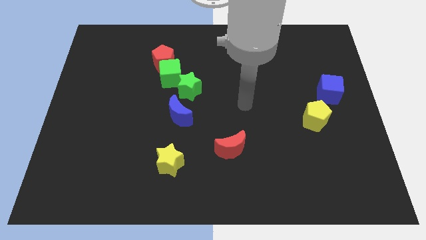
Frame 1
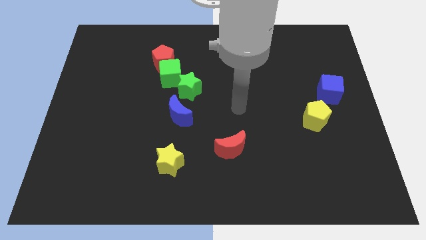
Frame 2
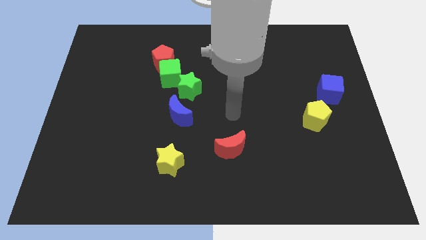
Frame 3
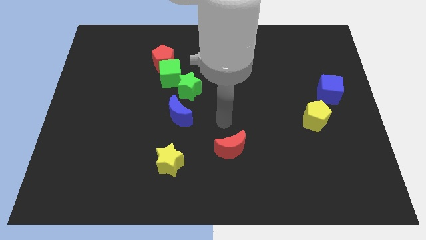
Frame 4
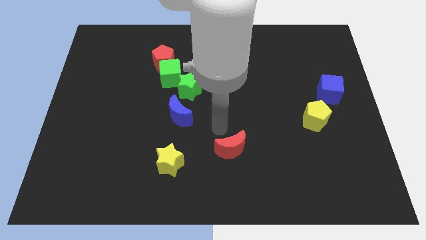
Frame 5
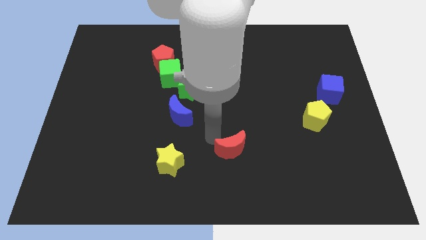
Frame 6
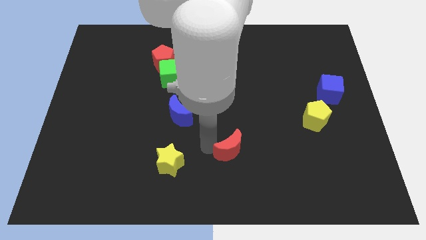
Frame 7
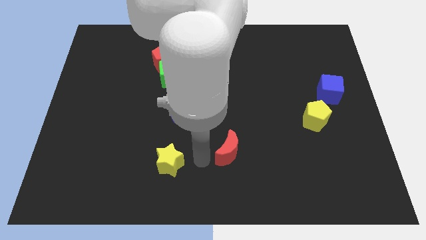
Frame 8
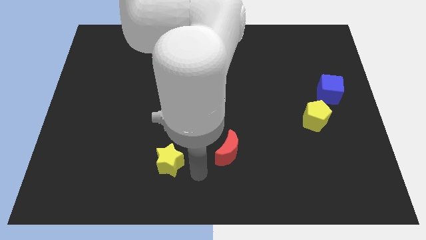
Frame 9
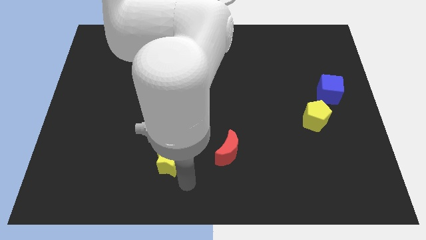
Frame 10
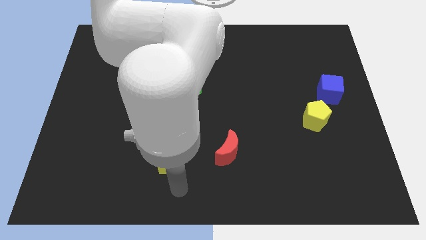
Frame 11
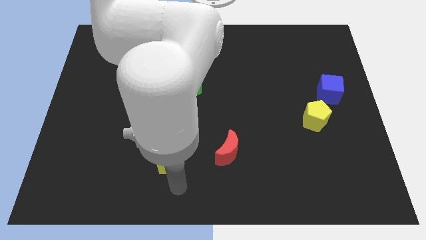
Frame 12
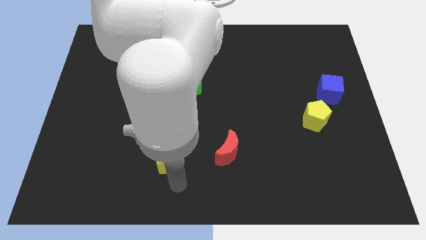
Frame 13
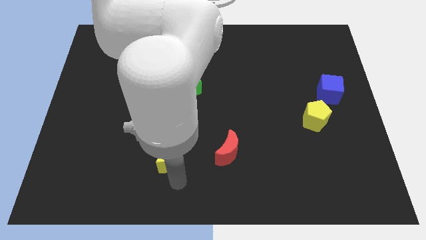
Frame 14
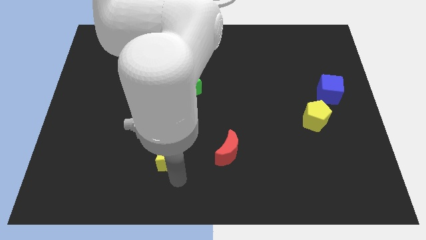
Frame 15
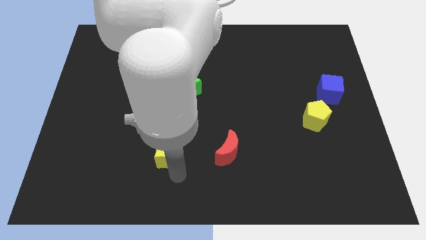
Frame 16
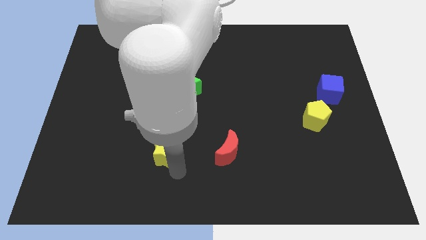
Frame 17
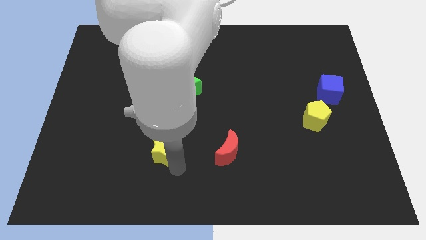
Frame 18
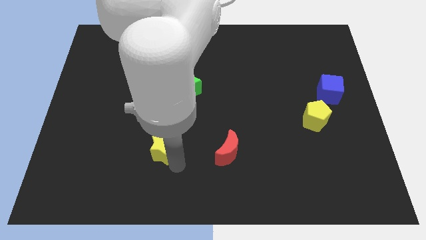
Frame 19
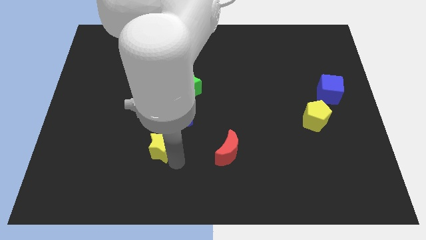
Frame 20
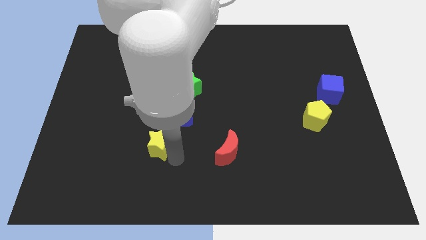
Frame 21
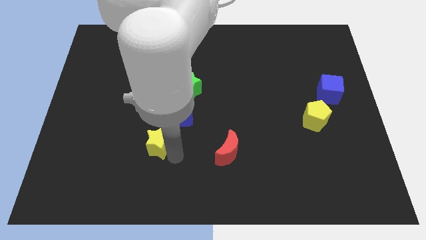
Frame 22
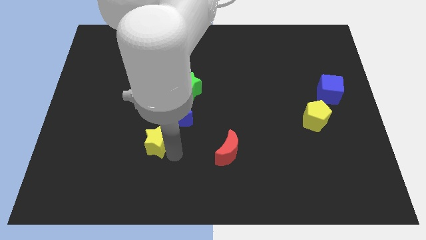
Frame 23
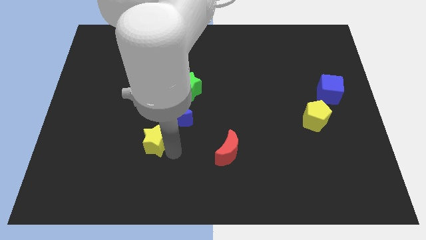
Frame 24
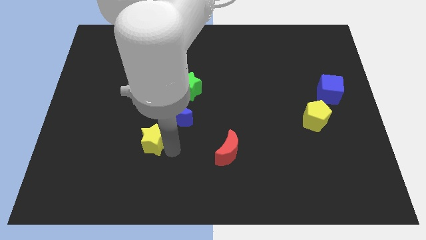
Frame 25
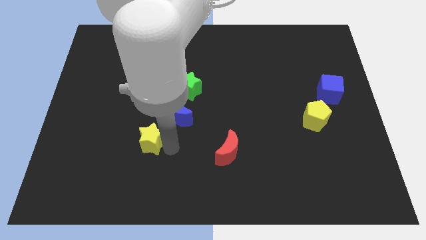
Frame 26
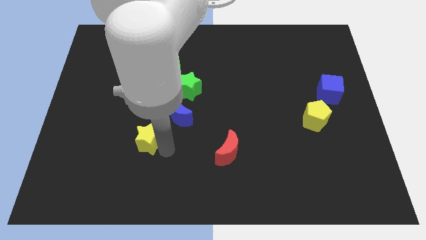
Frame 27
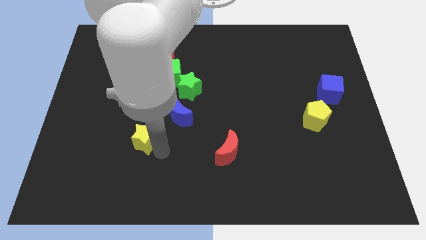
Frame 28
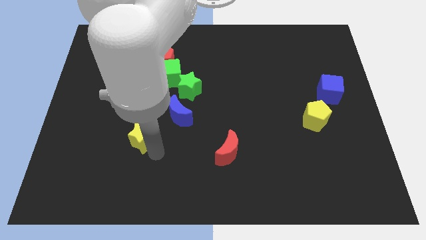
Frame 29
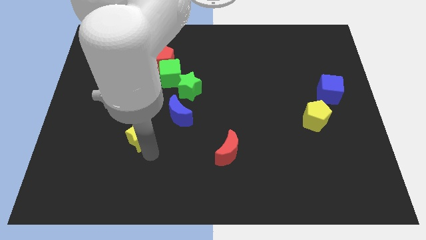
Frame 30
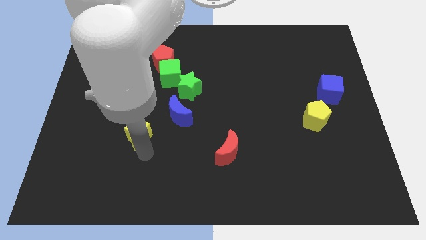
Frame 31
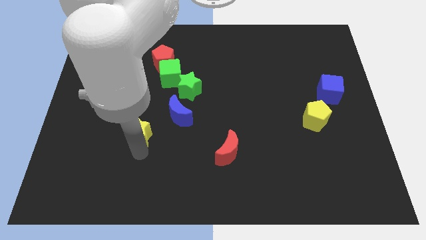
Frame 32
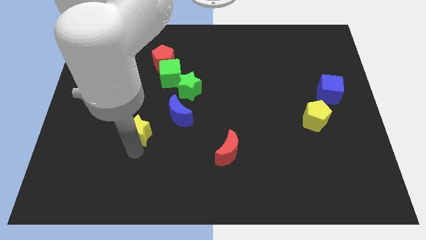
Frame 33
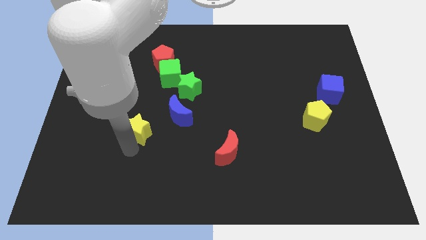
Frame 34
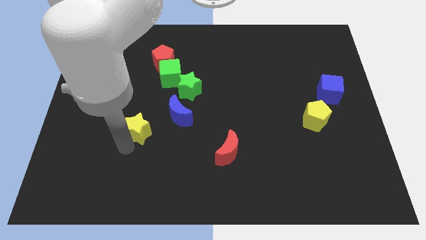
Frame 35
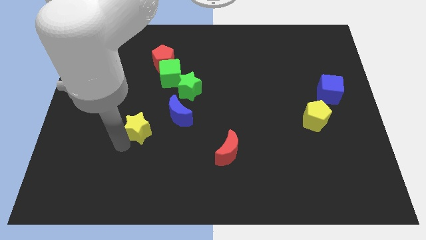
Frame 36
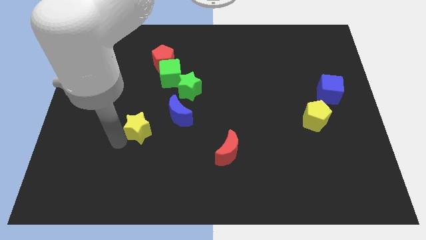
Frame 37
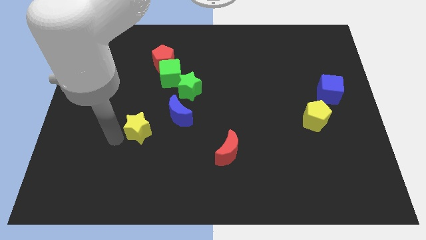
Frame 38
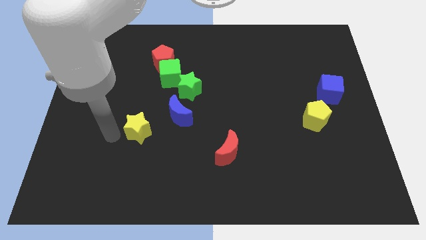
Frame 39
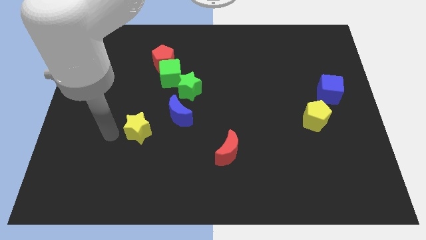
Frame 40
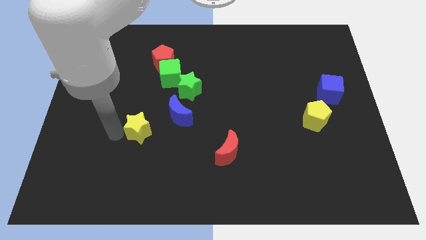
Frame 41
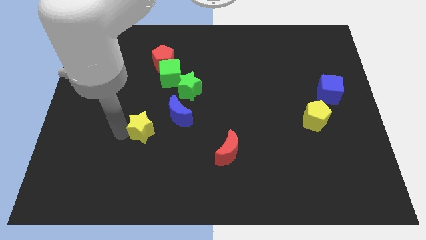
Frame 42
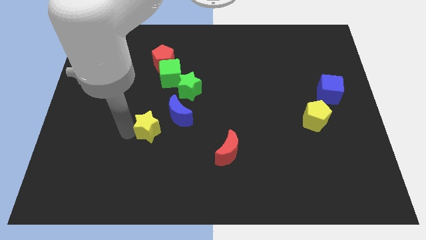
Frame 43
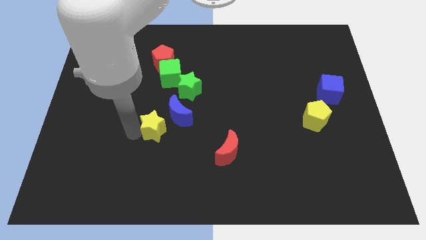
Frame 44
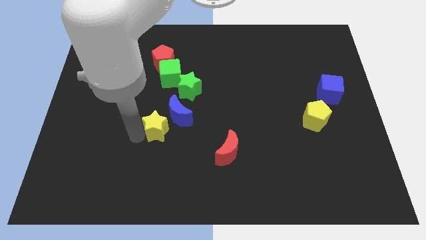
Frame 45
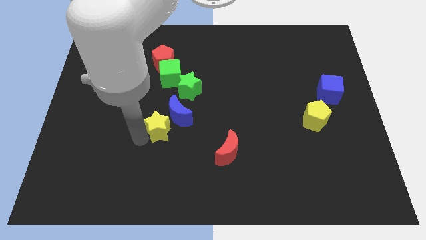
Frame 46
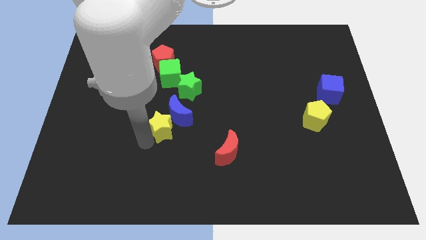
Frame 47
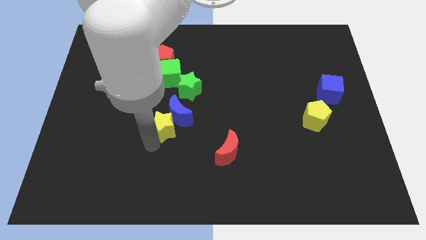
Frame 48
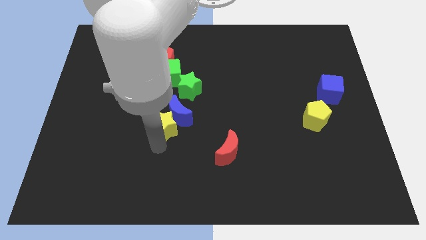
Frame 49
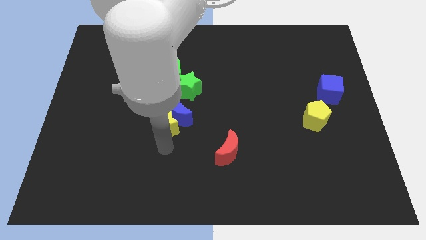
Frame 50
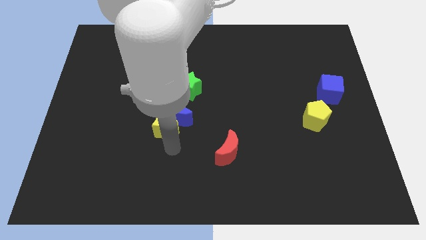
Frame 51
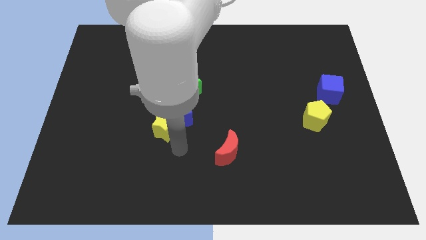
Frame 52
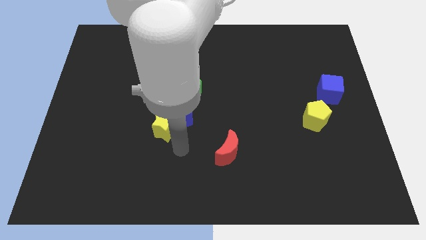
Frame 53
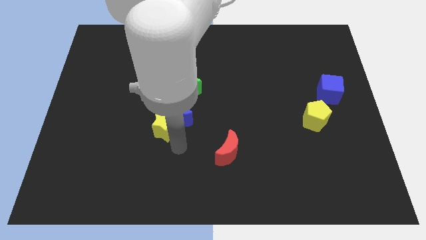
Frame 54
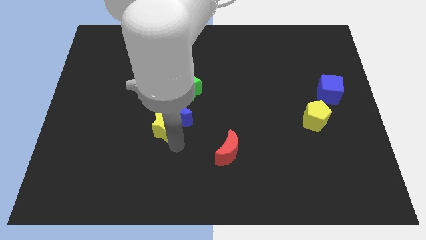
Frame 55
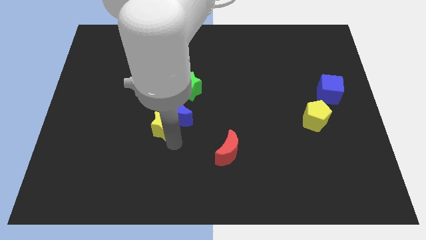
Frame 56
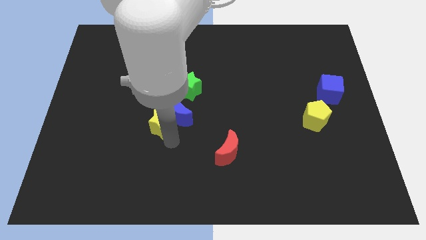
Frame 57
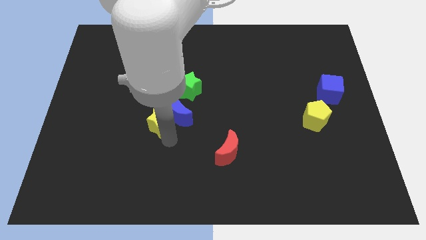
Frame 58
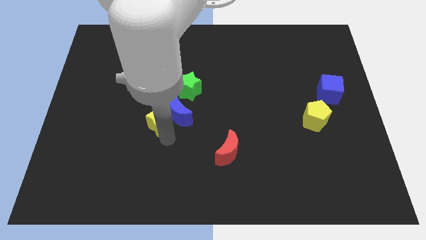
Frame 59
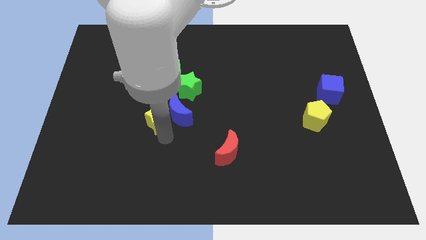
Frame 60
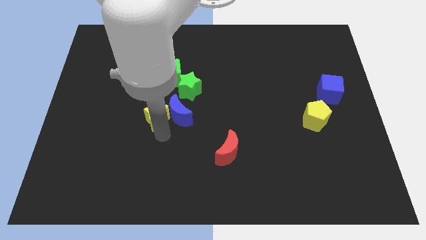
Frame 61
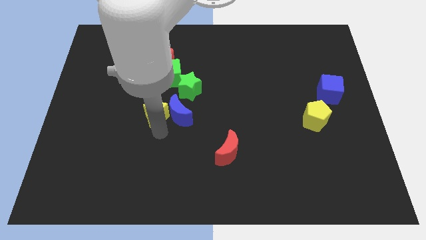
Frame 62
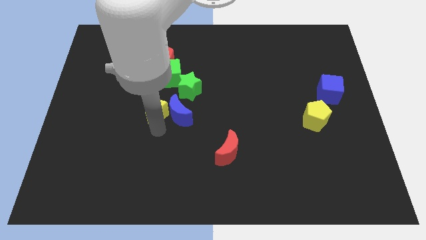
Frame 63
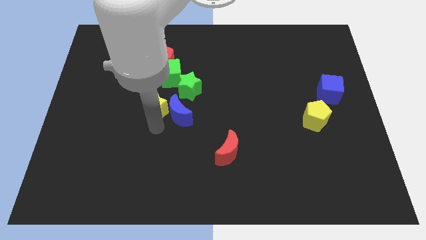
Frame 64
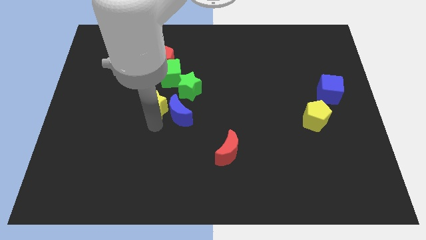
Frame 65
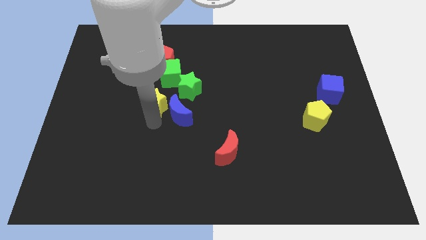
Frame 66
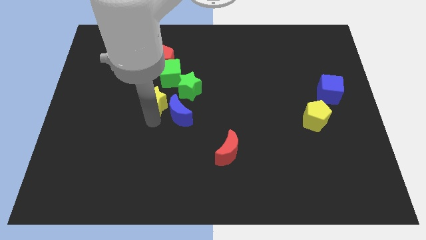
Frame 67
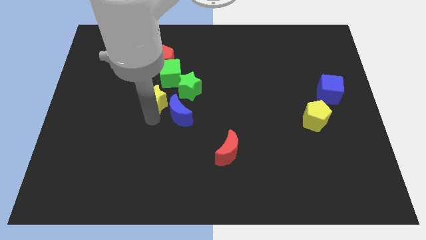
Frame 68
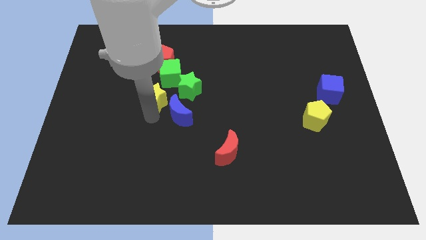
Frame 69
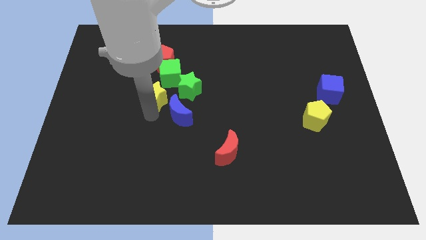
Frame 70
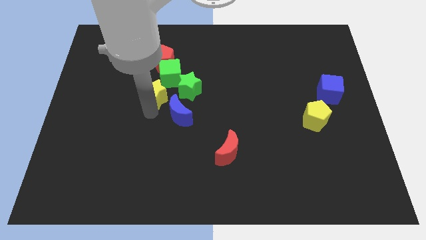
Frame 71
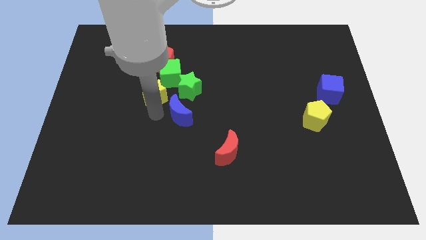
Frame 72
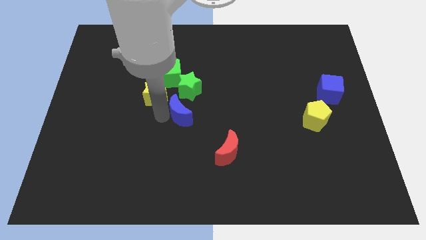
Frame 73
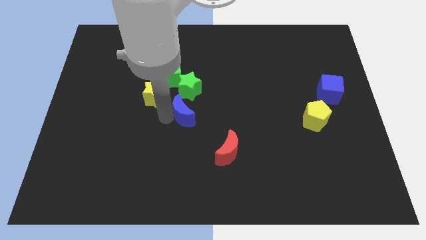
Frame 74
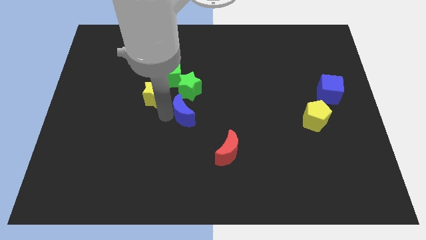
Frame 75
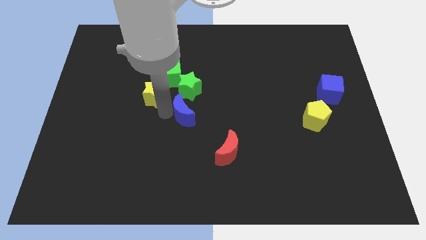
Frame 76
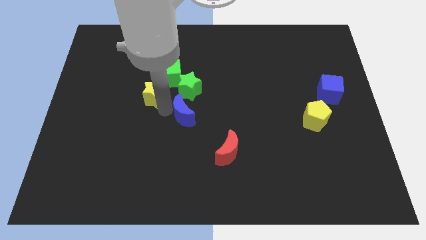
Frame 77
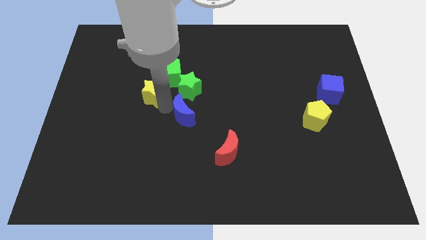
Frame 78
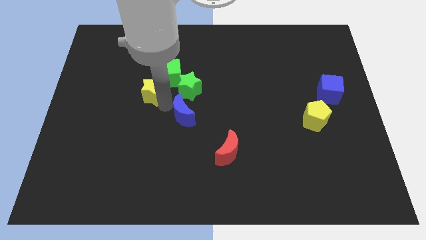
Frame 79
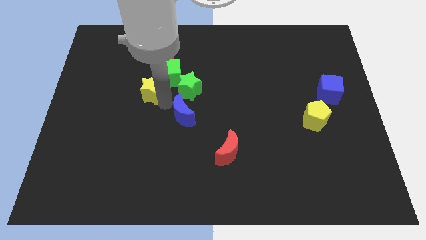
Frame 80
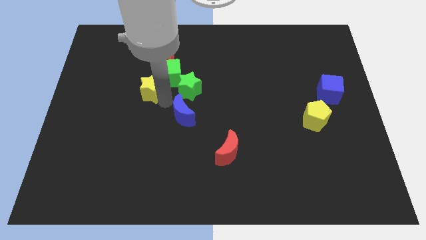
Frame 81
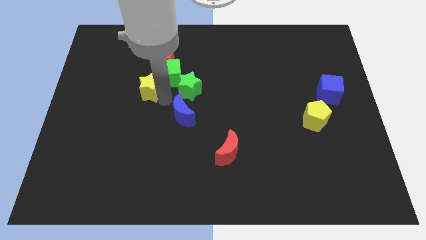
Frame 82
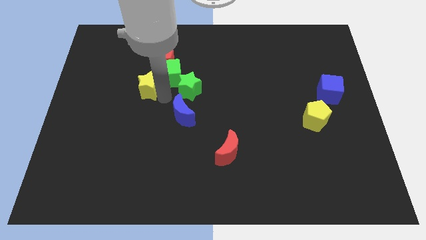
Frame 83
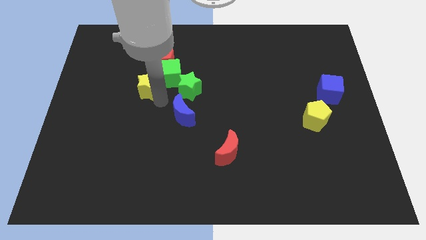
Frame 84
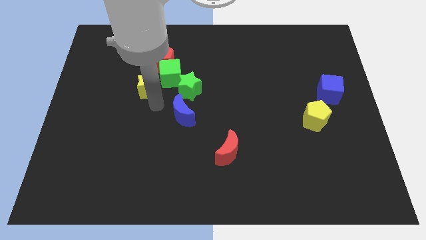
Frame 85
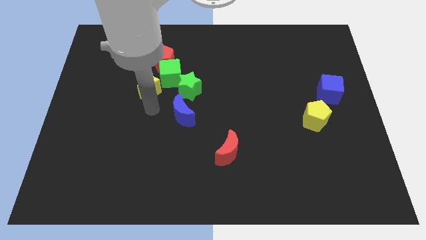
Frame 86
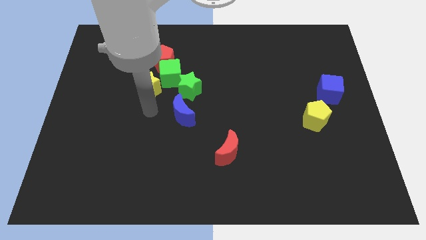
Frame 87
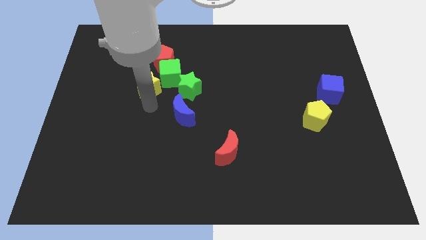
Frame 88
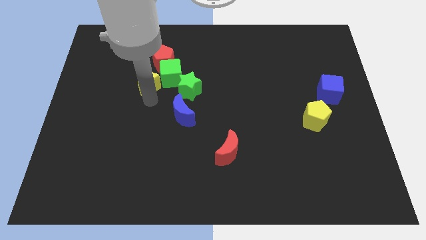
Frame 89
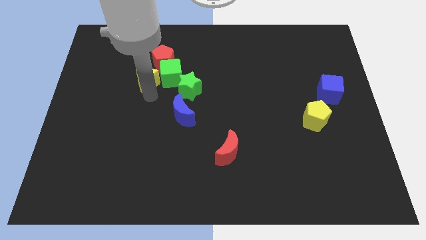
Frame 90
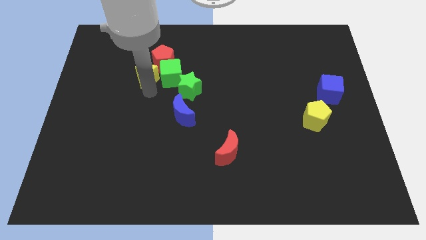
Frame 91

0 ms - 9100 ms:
slide the yellow star to the red pentagon
